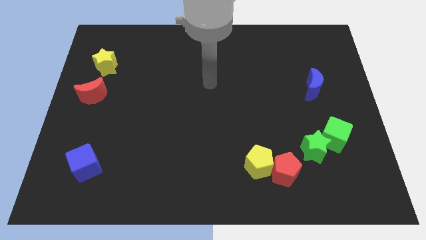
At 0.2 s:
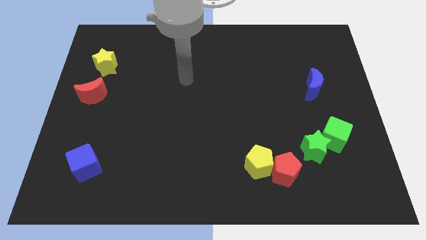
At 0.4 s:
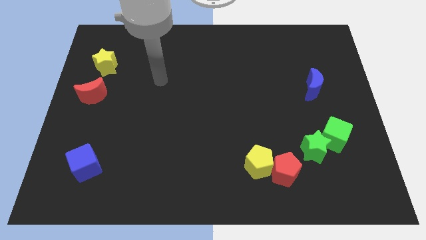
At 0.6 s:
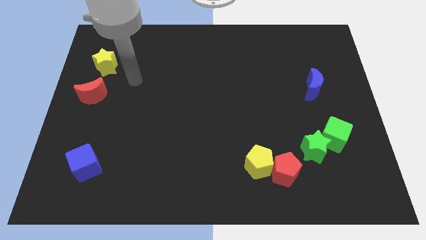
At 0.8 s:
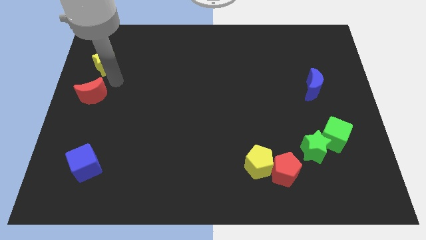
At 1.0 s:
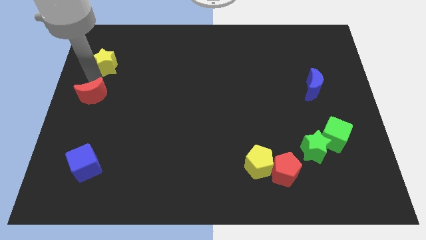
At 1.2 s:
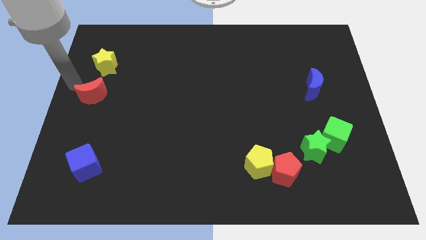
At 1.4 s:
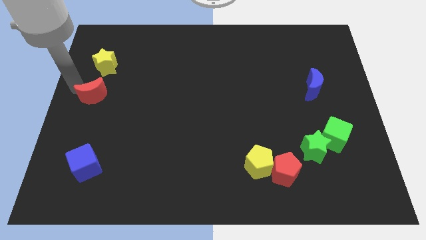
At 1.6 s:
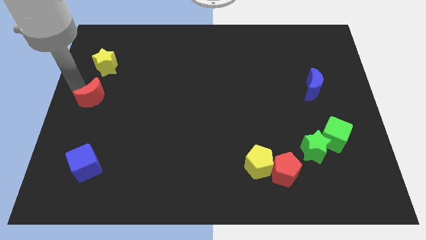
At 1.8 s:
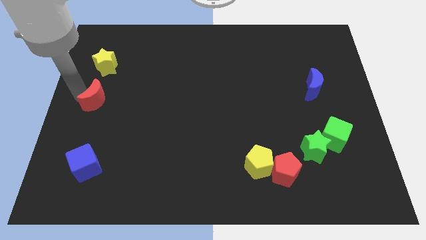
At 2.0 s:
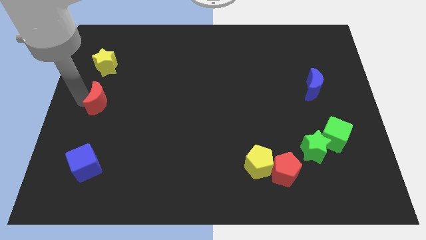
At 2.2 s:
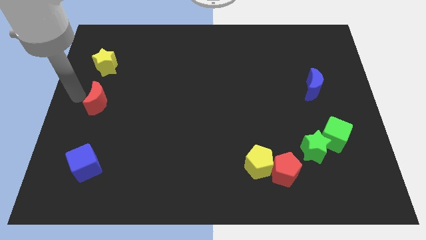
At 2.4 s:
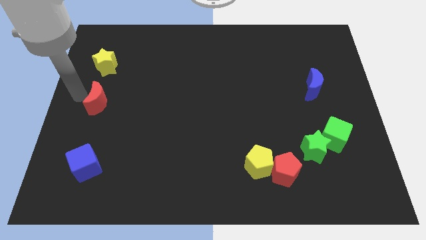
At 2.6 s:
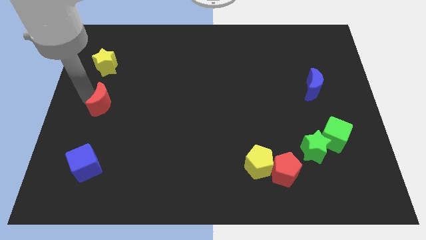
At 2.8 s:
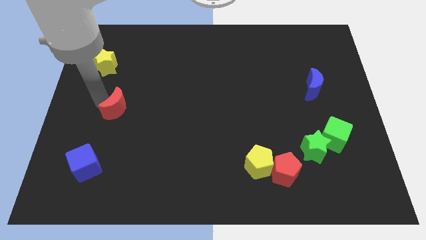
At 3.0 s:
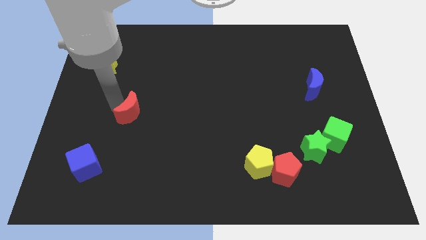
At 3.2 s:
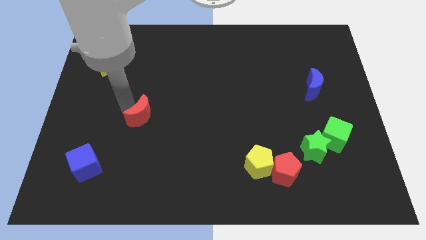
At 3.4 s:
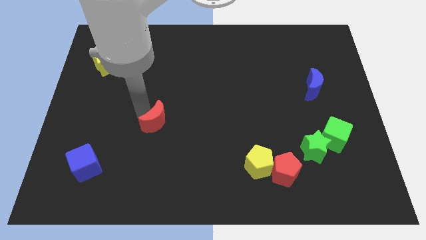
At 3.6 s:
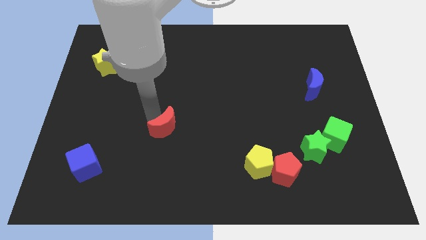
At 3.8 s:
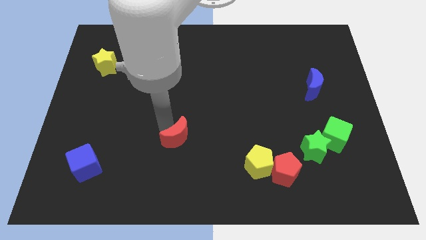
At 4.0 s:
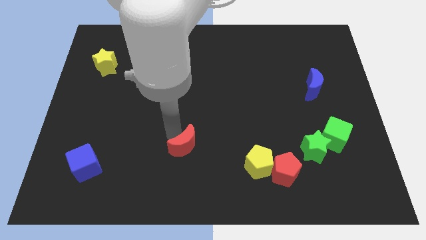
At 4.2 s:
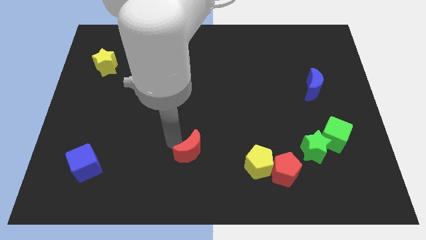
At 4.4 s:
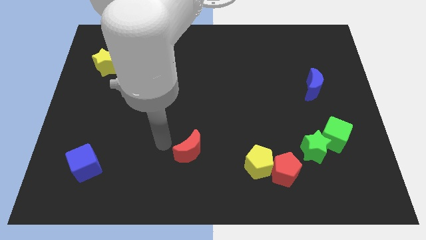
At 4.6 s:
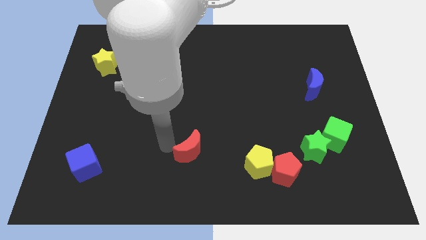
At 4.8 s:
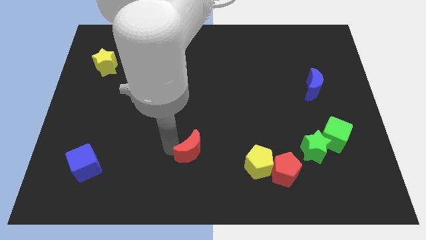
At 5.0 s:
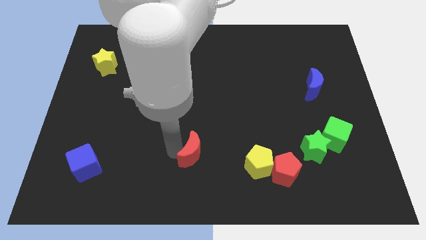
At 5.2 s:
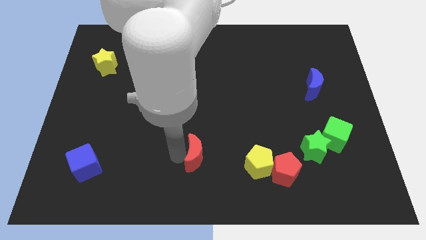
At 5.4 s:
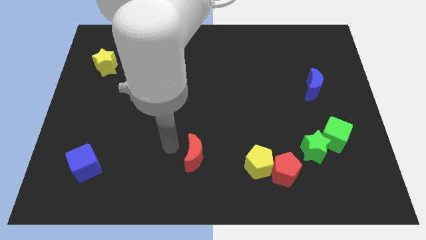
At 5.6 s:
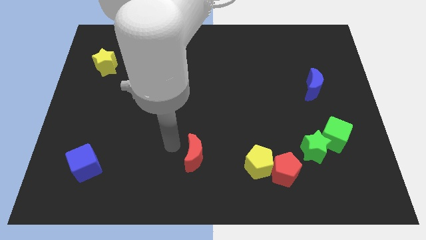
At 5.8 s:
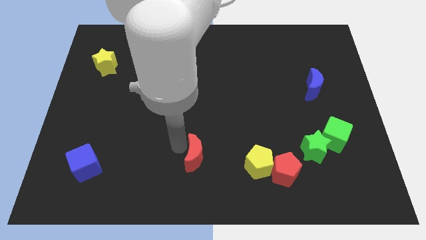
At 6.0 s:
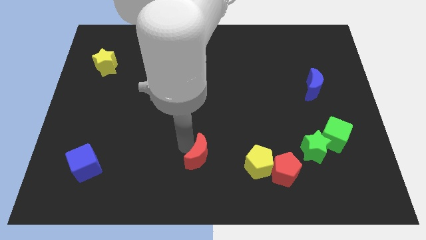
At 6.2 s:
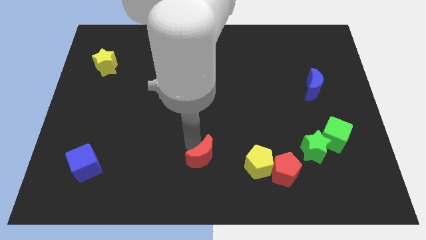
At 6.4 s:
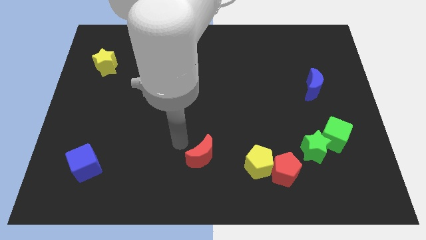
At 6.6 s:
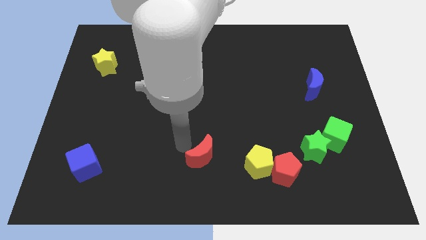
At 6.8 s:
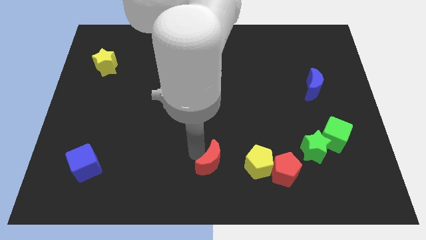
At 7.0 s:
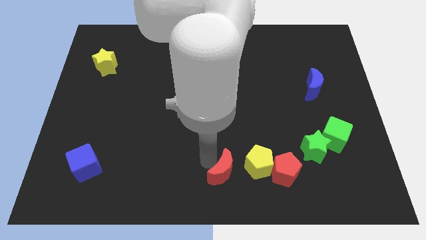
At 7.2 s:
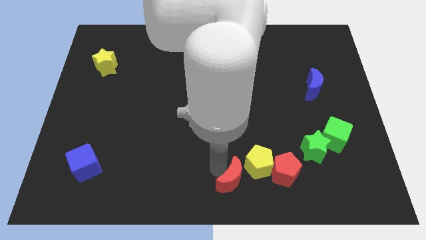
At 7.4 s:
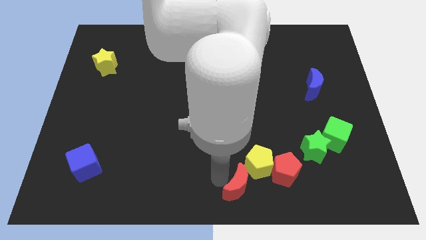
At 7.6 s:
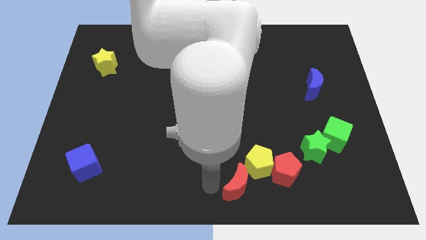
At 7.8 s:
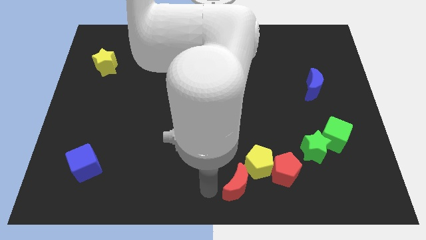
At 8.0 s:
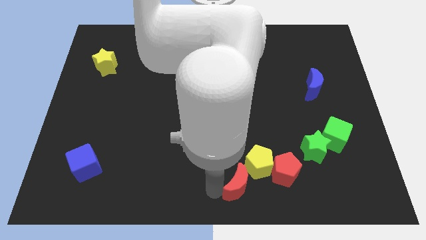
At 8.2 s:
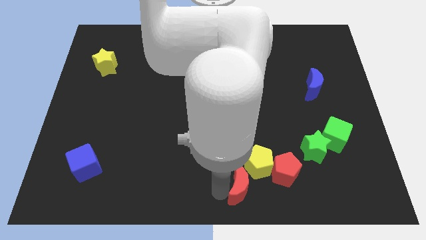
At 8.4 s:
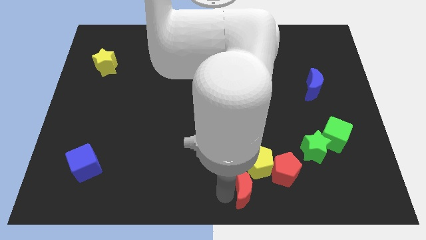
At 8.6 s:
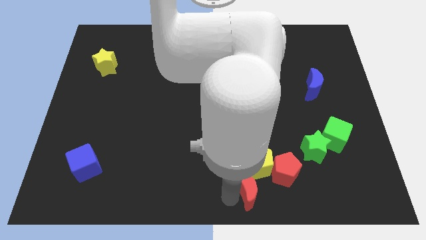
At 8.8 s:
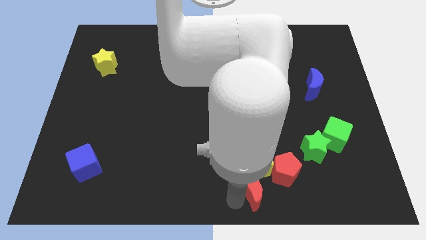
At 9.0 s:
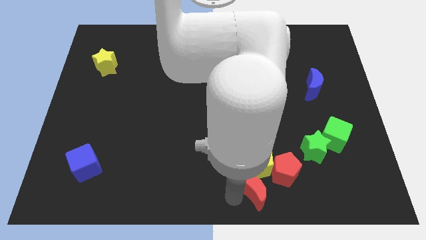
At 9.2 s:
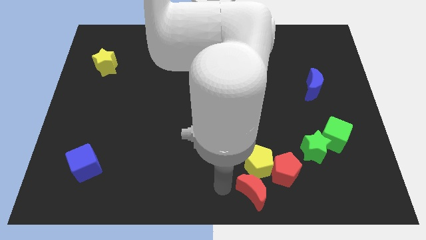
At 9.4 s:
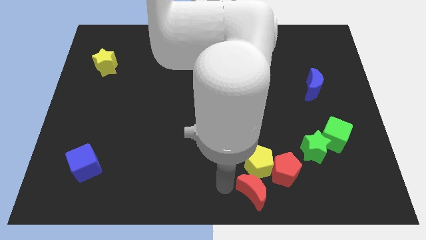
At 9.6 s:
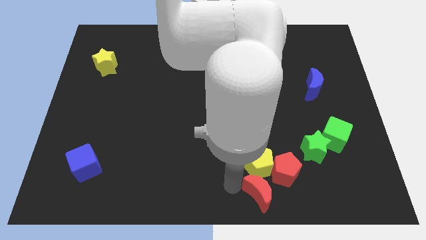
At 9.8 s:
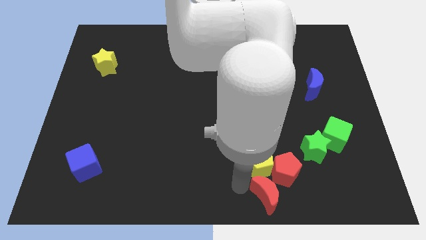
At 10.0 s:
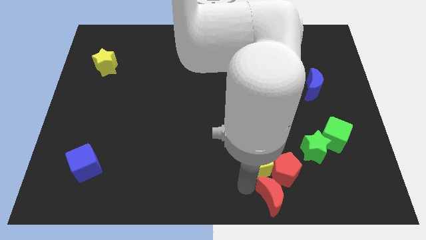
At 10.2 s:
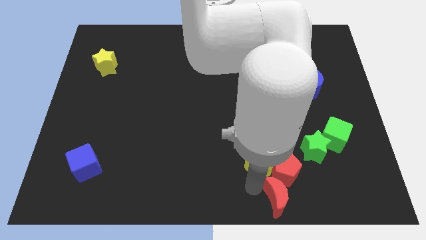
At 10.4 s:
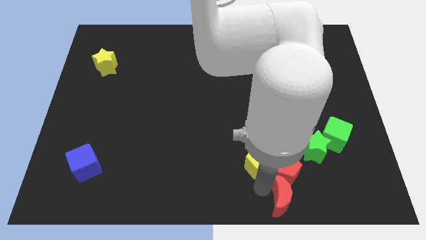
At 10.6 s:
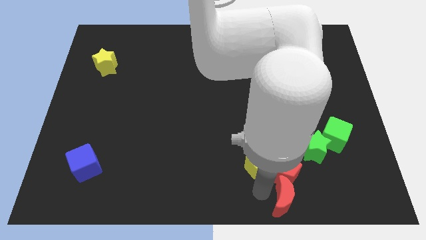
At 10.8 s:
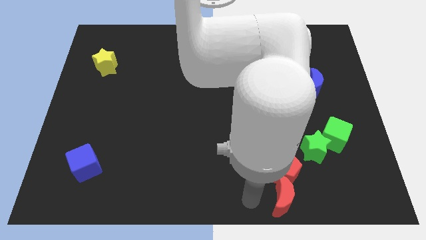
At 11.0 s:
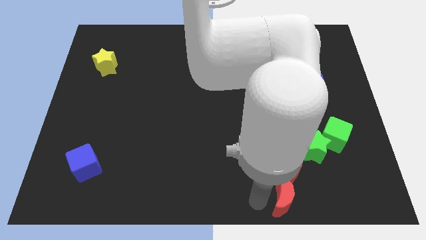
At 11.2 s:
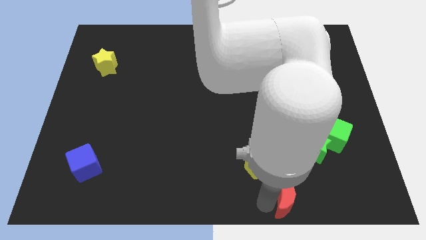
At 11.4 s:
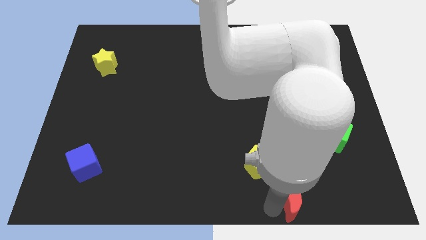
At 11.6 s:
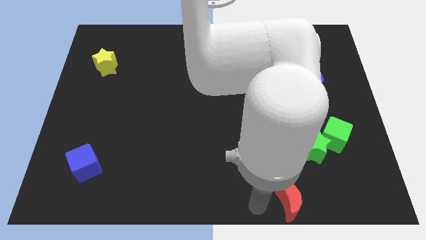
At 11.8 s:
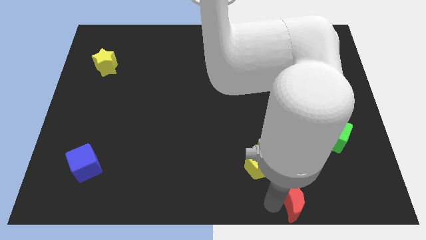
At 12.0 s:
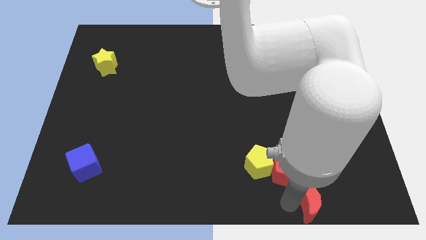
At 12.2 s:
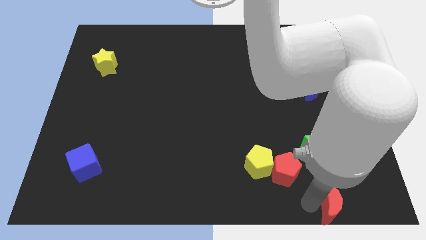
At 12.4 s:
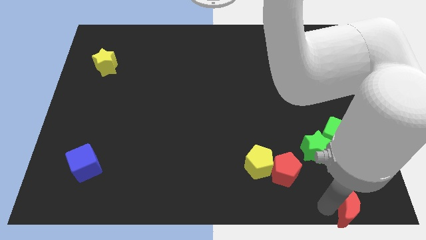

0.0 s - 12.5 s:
move the red moon to the bottom right corner

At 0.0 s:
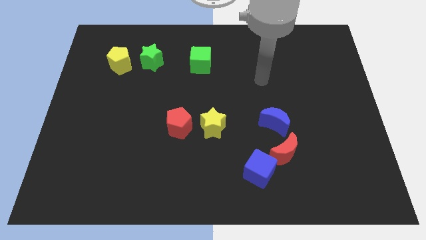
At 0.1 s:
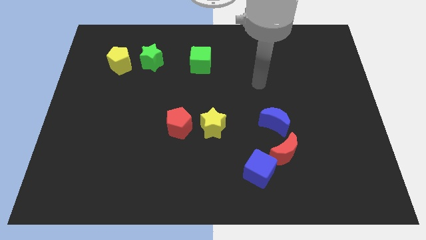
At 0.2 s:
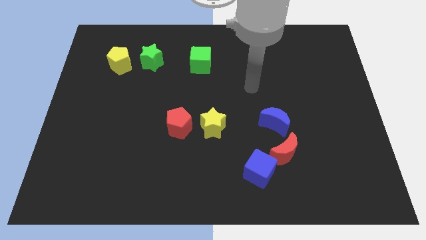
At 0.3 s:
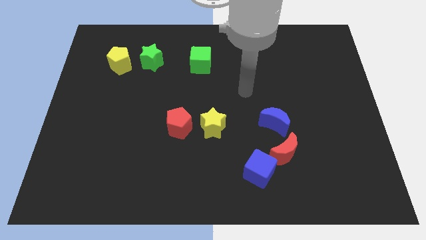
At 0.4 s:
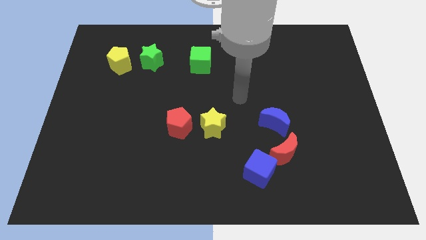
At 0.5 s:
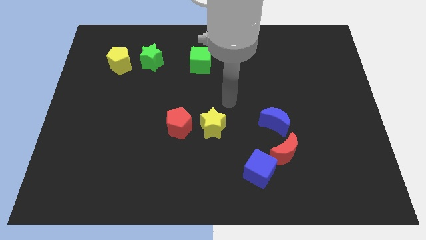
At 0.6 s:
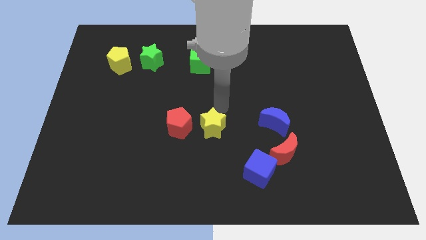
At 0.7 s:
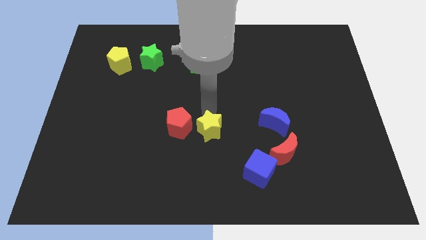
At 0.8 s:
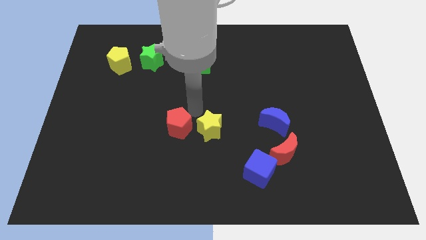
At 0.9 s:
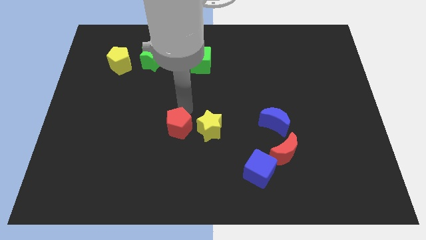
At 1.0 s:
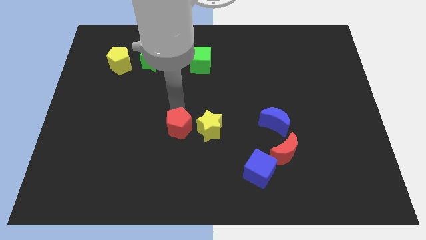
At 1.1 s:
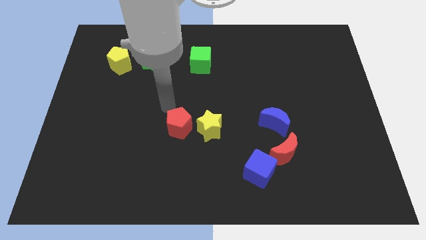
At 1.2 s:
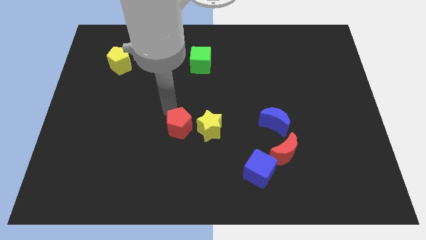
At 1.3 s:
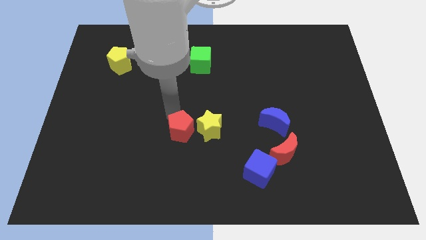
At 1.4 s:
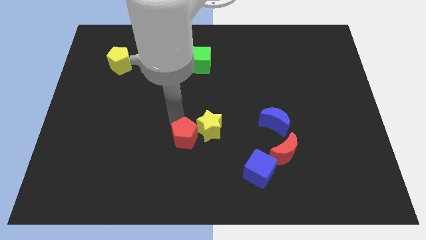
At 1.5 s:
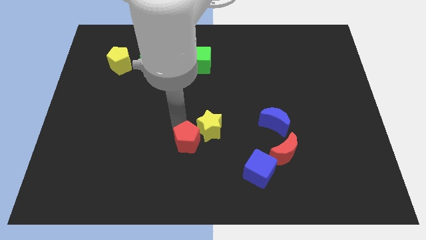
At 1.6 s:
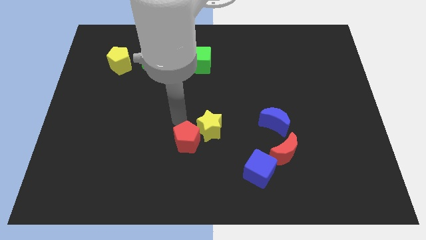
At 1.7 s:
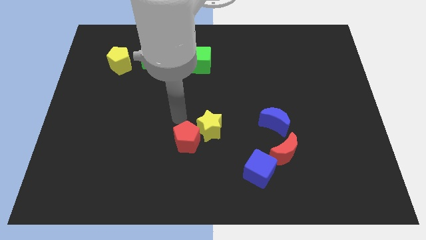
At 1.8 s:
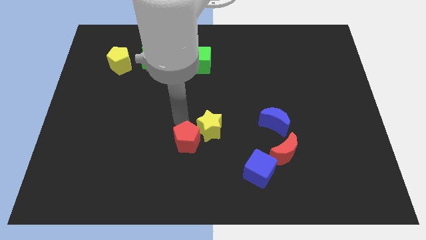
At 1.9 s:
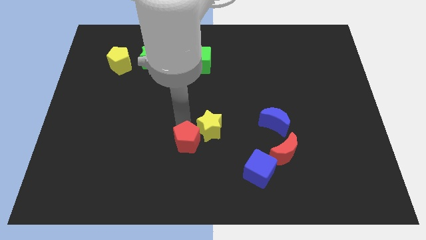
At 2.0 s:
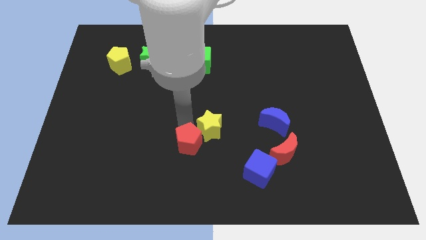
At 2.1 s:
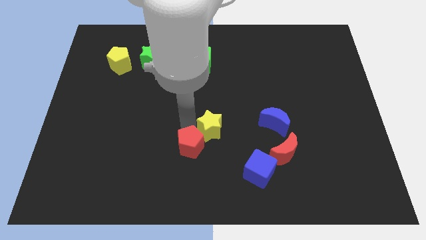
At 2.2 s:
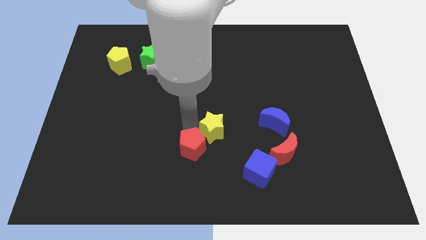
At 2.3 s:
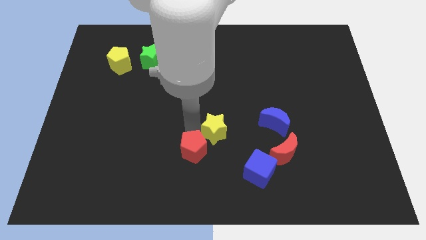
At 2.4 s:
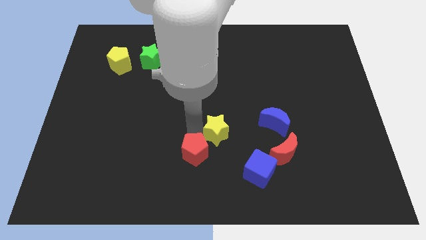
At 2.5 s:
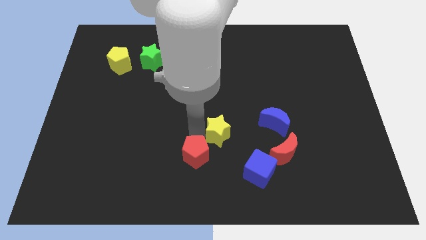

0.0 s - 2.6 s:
slide the red pentagon to the bottom side
